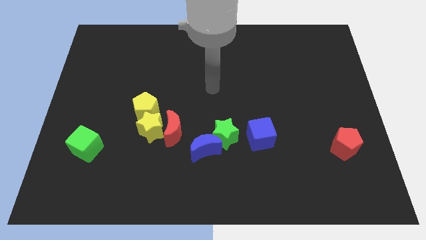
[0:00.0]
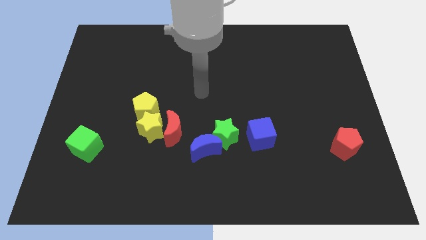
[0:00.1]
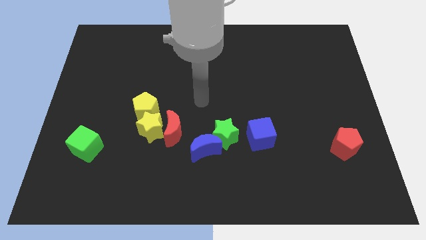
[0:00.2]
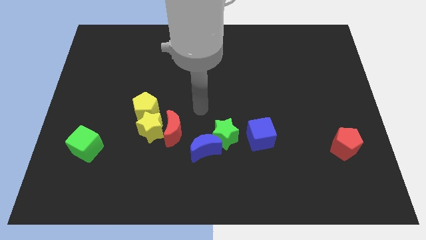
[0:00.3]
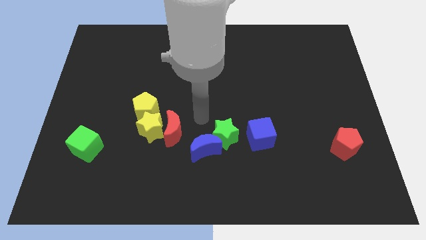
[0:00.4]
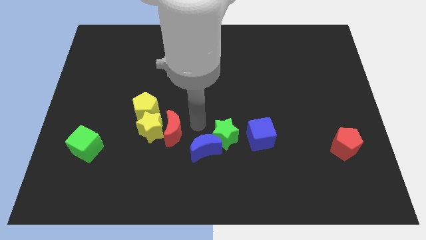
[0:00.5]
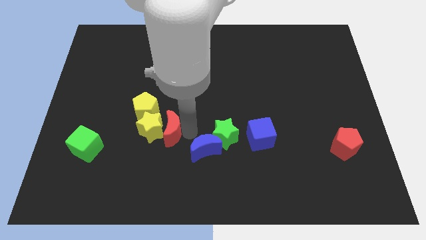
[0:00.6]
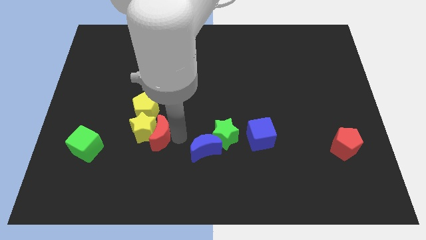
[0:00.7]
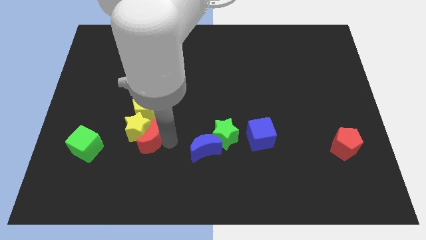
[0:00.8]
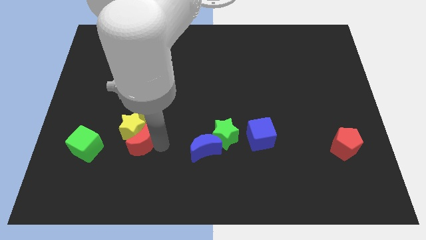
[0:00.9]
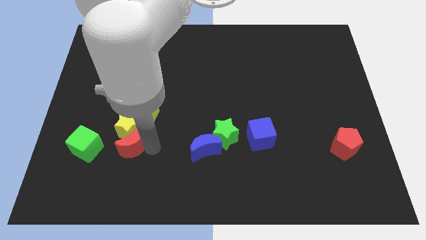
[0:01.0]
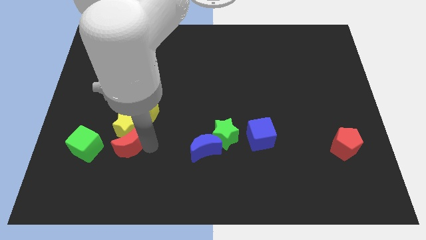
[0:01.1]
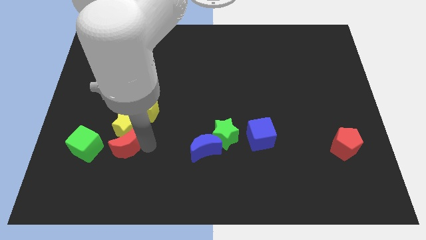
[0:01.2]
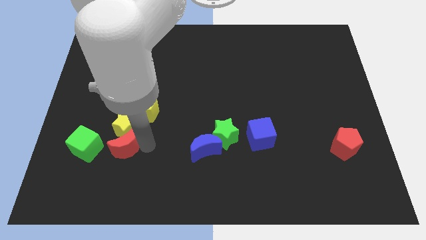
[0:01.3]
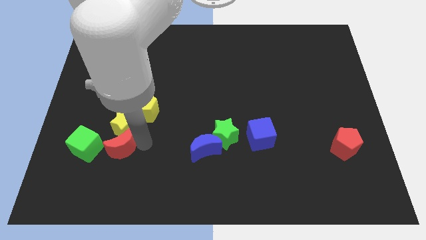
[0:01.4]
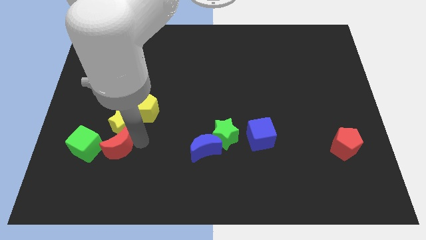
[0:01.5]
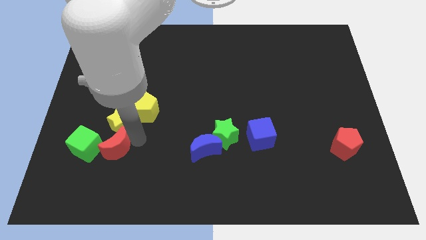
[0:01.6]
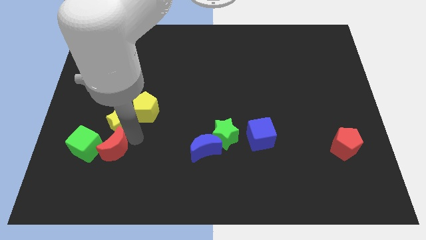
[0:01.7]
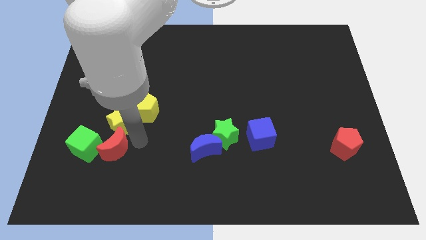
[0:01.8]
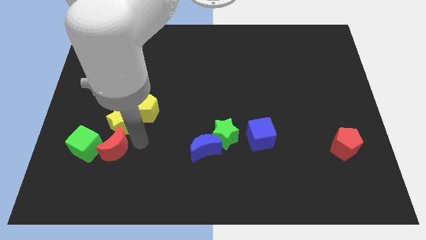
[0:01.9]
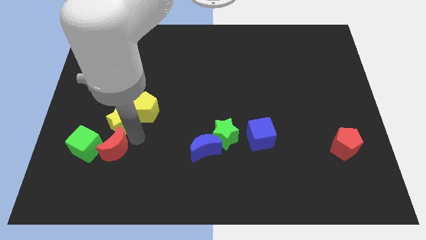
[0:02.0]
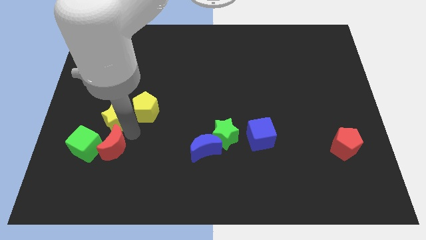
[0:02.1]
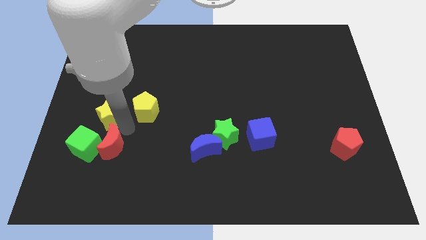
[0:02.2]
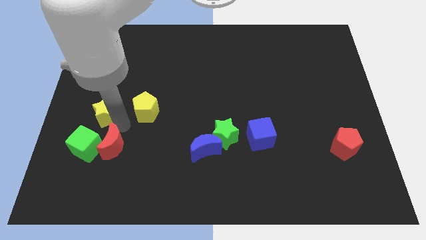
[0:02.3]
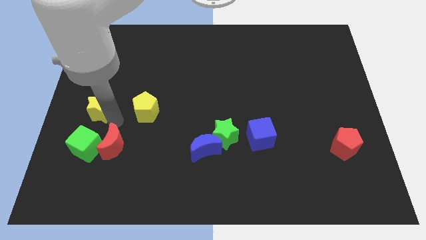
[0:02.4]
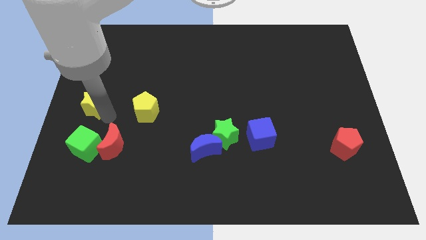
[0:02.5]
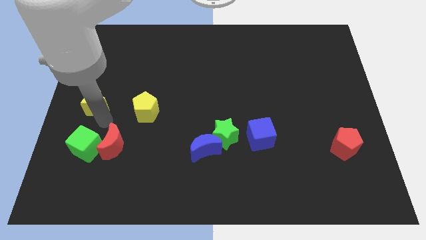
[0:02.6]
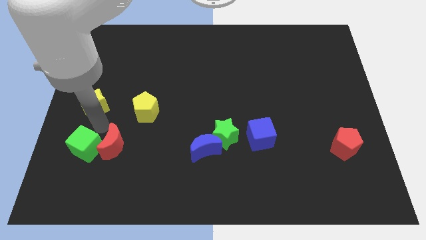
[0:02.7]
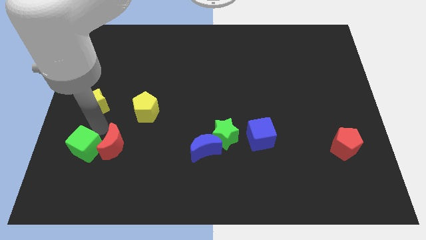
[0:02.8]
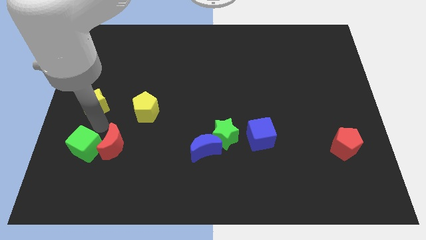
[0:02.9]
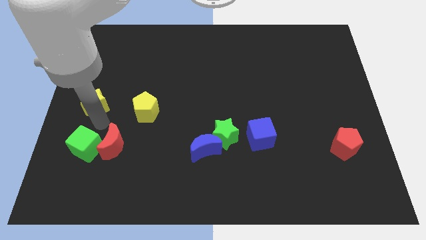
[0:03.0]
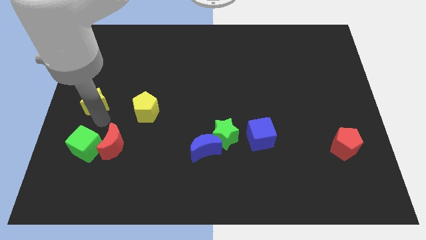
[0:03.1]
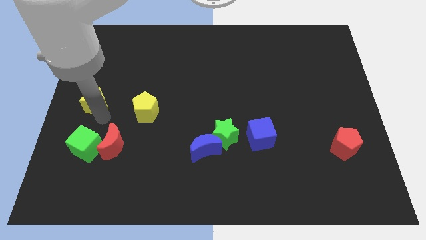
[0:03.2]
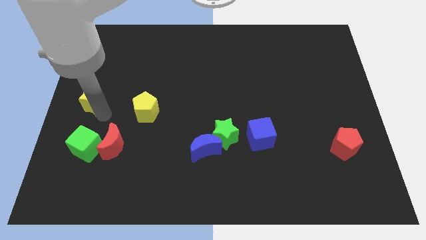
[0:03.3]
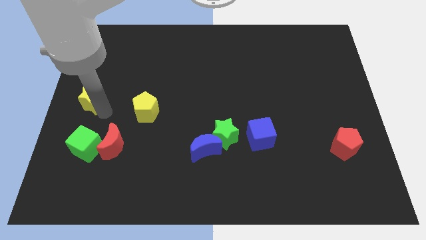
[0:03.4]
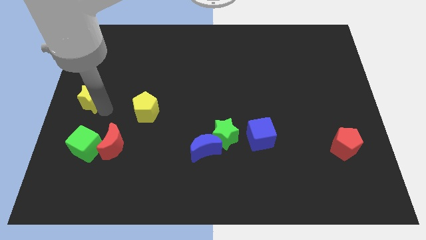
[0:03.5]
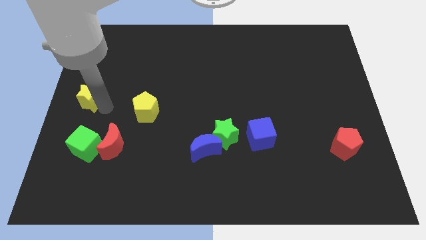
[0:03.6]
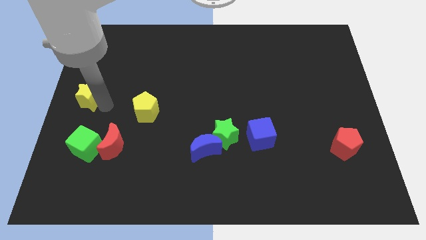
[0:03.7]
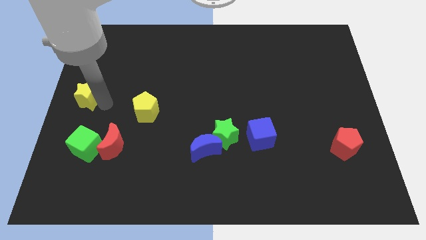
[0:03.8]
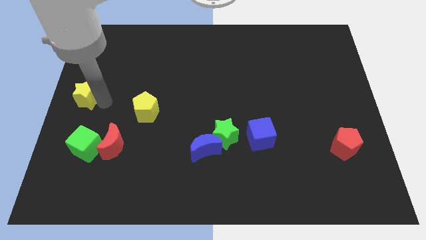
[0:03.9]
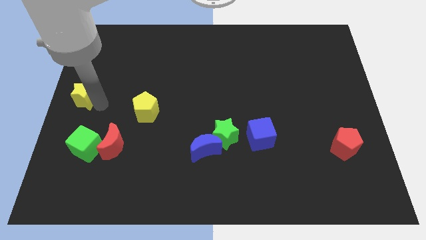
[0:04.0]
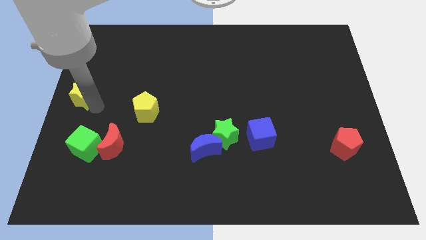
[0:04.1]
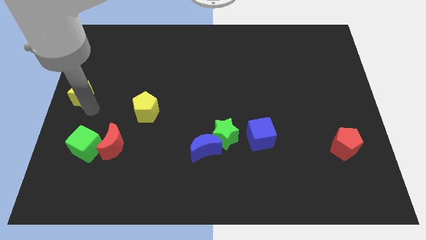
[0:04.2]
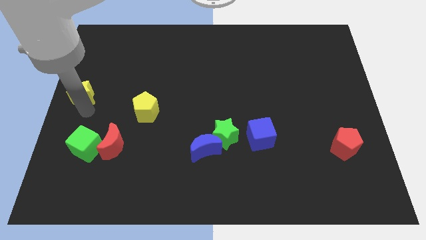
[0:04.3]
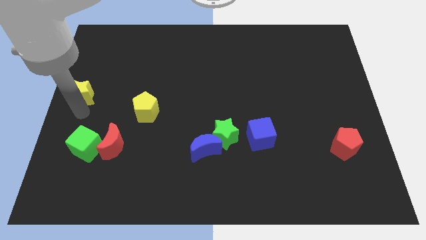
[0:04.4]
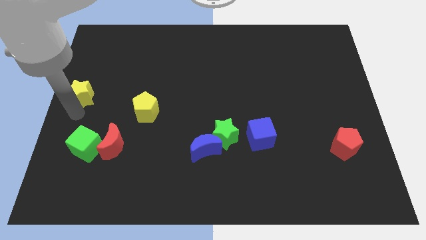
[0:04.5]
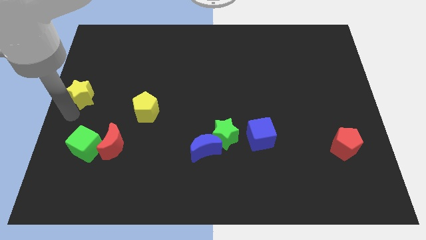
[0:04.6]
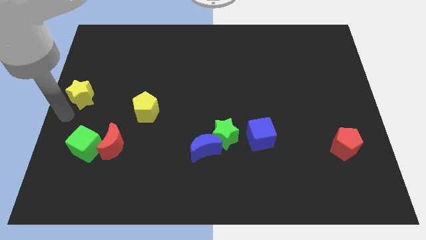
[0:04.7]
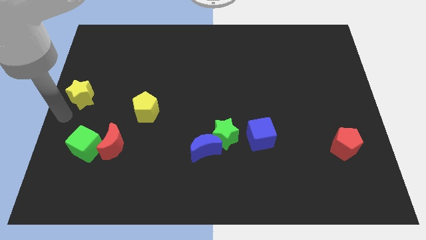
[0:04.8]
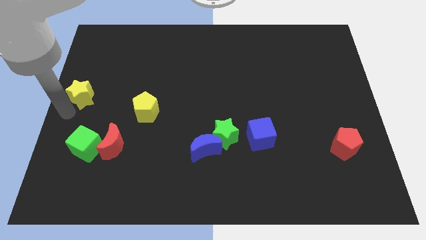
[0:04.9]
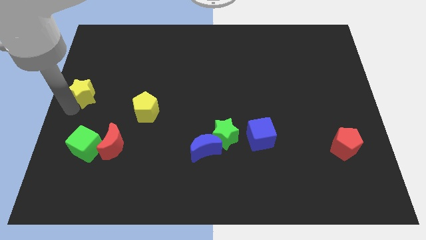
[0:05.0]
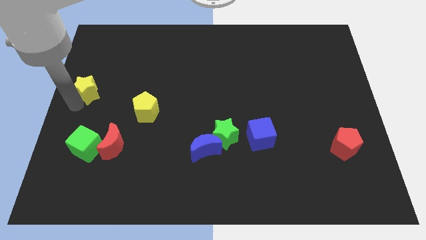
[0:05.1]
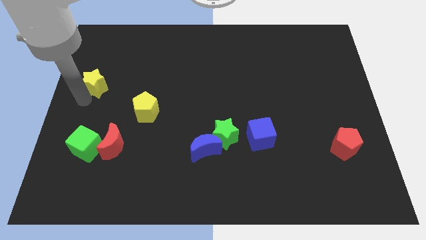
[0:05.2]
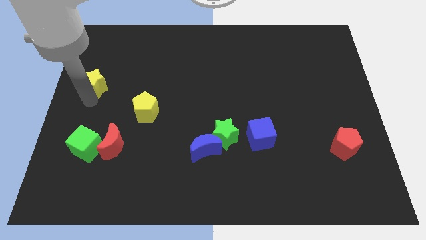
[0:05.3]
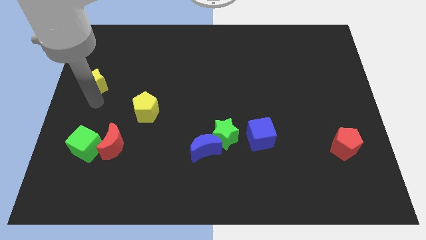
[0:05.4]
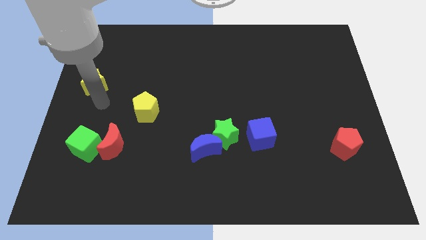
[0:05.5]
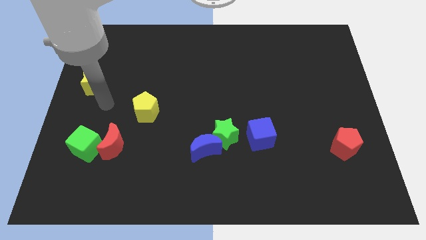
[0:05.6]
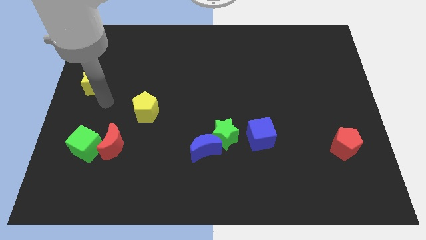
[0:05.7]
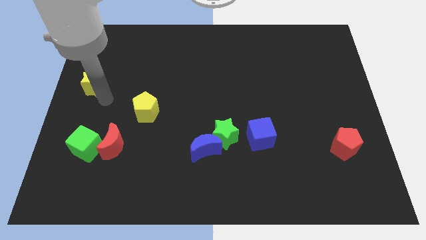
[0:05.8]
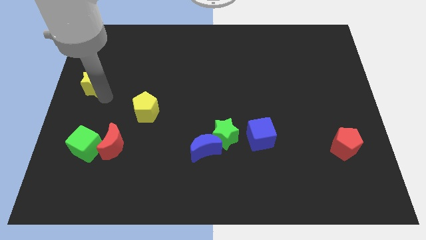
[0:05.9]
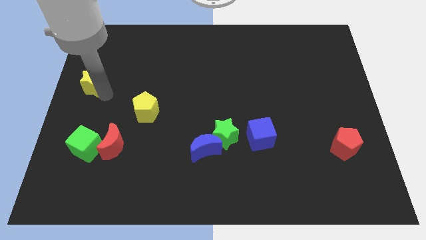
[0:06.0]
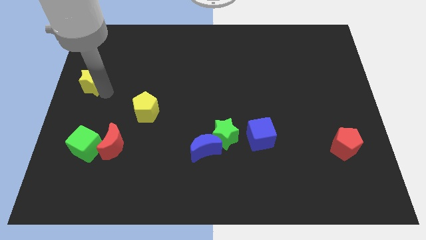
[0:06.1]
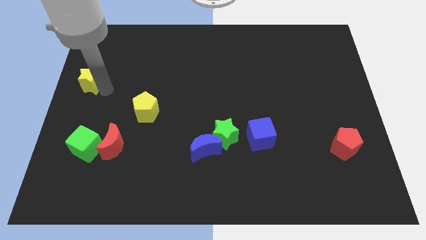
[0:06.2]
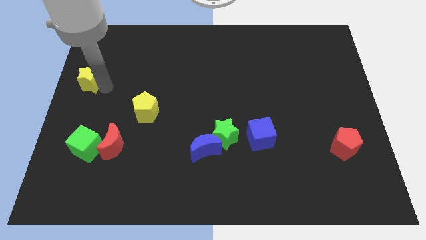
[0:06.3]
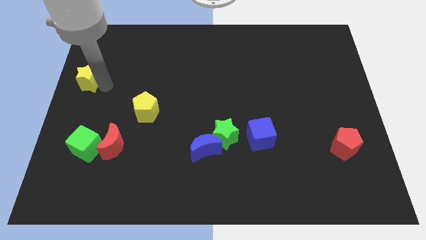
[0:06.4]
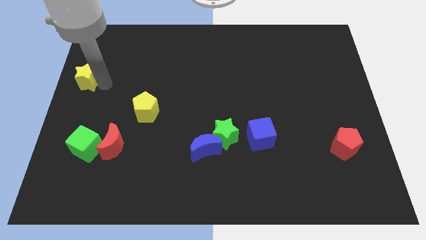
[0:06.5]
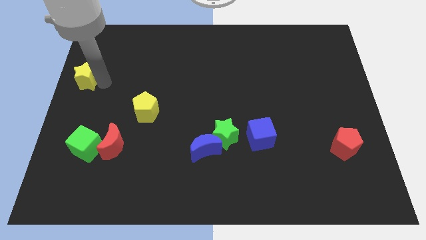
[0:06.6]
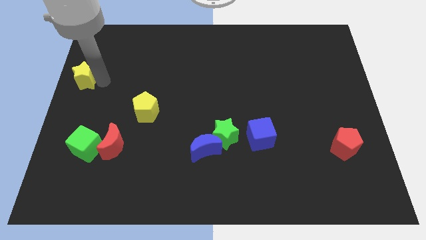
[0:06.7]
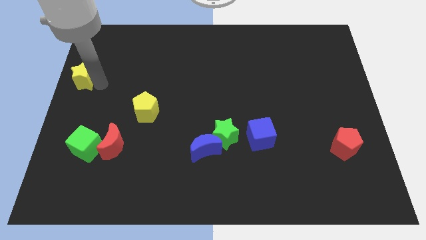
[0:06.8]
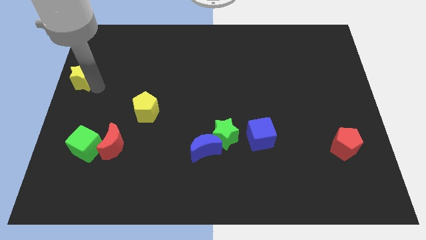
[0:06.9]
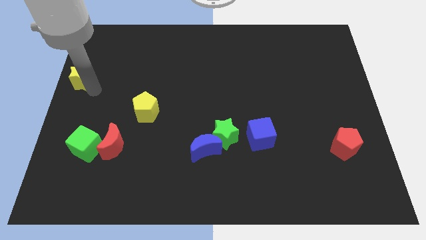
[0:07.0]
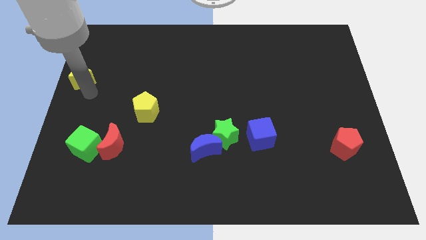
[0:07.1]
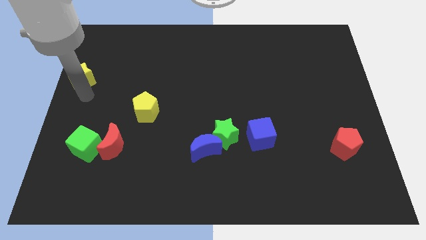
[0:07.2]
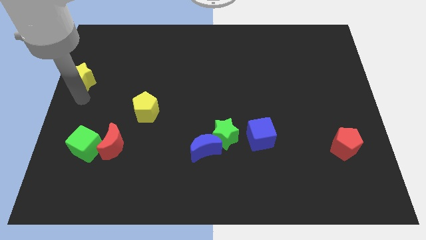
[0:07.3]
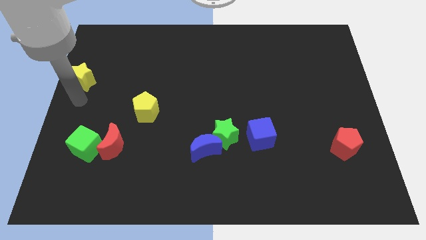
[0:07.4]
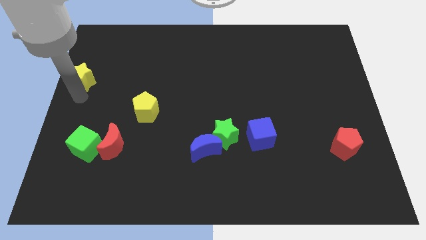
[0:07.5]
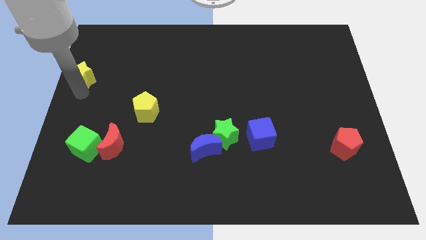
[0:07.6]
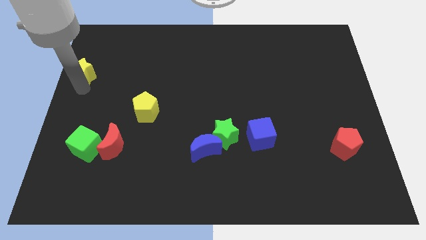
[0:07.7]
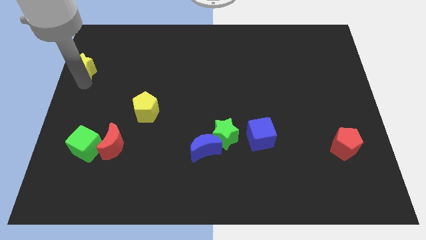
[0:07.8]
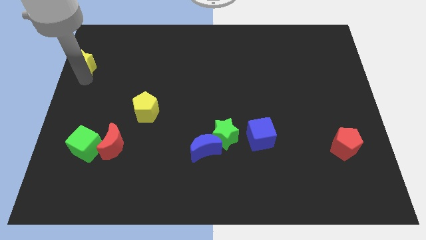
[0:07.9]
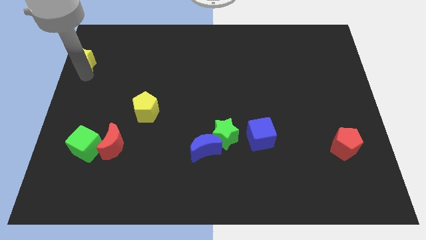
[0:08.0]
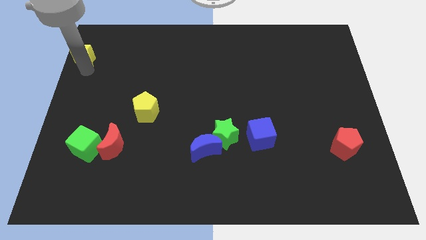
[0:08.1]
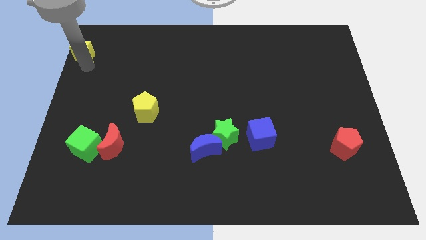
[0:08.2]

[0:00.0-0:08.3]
move the yellow star to the upper left corner
